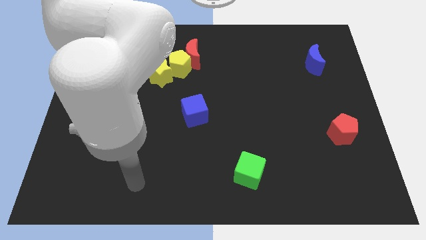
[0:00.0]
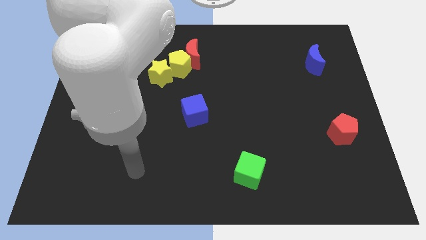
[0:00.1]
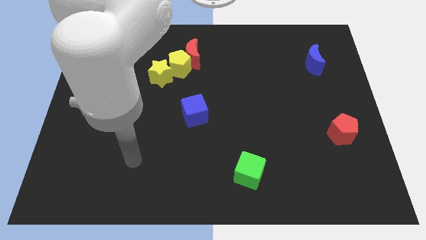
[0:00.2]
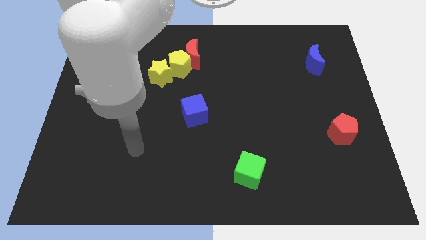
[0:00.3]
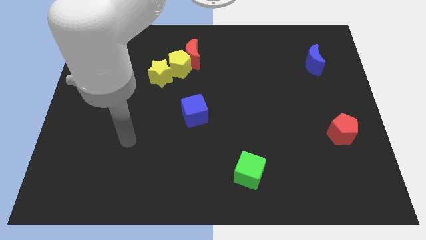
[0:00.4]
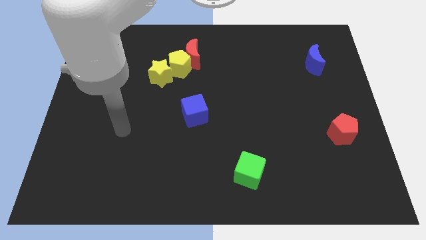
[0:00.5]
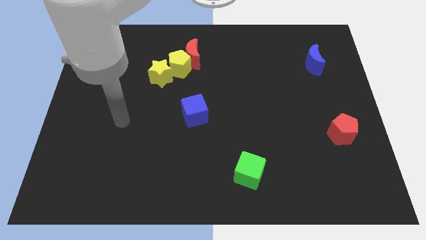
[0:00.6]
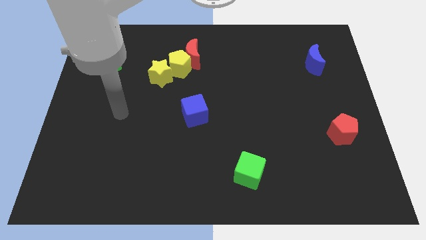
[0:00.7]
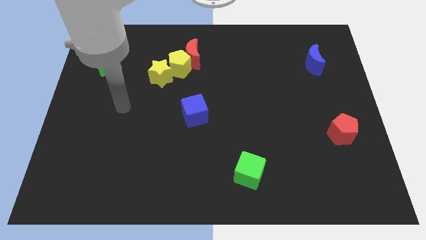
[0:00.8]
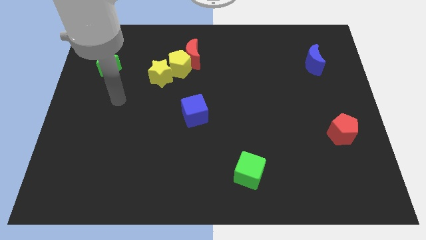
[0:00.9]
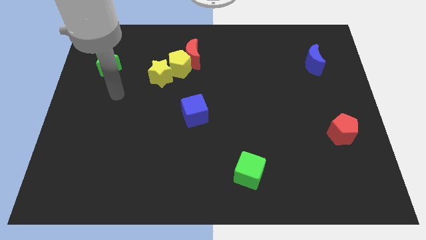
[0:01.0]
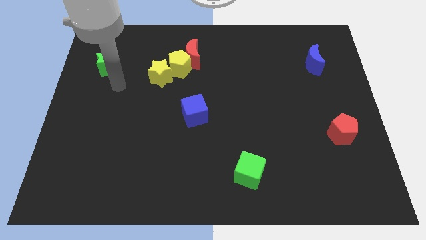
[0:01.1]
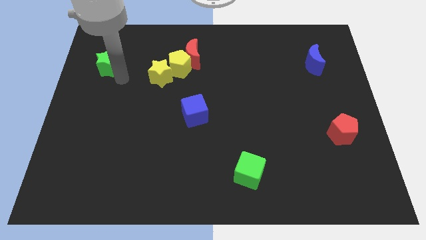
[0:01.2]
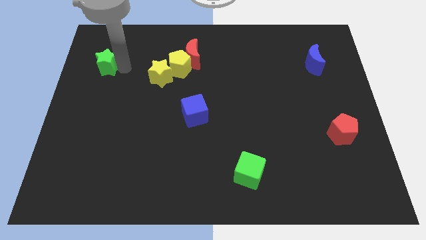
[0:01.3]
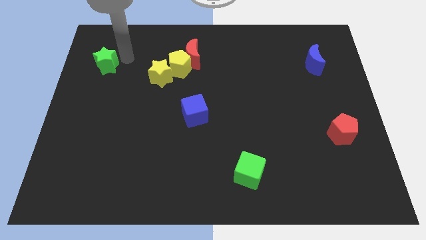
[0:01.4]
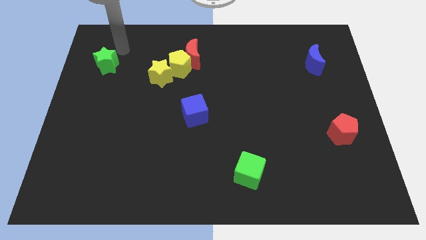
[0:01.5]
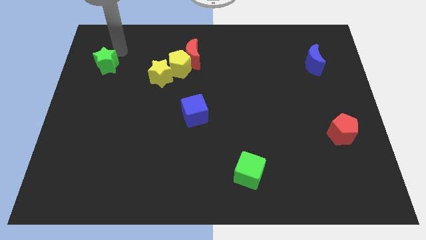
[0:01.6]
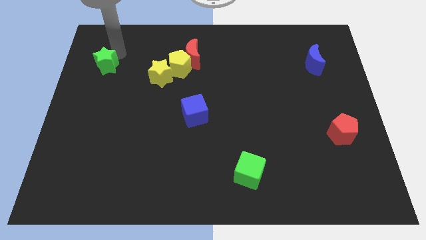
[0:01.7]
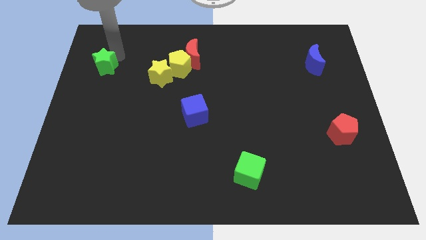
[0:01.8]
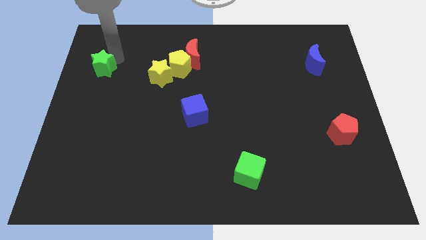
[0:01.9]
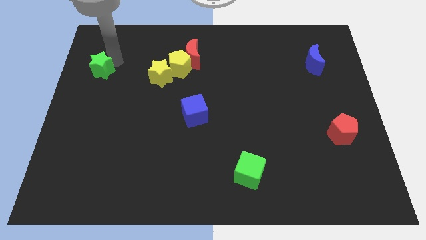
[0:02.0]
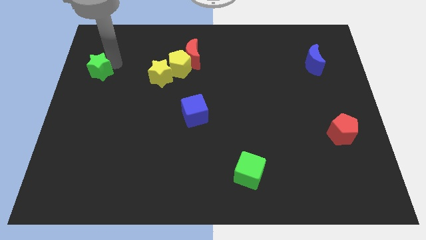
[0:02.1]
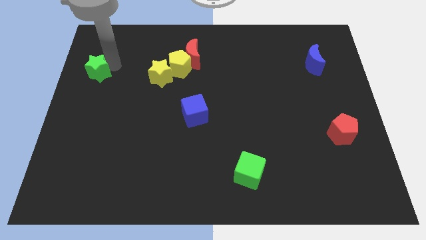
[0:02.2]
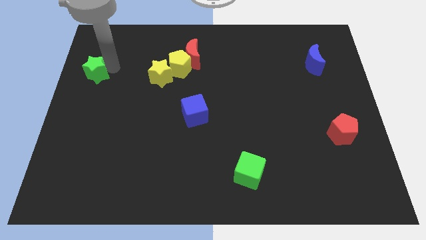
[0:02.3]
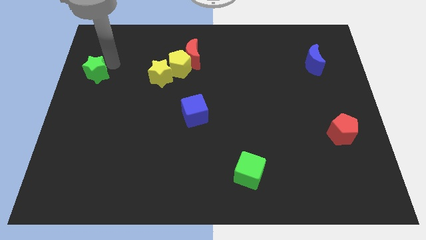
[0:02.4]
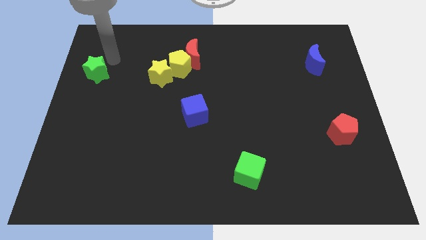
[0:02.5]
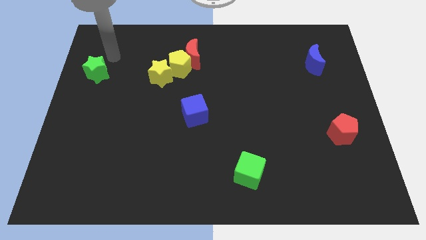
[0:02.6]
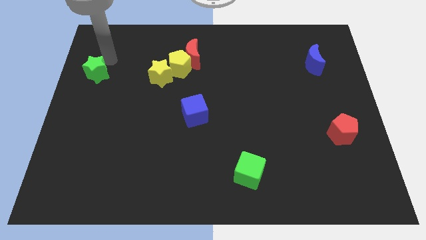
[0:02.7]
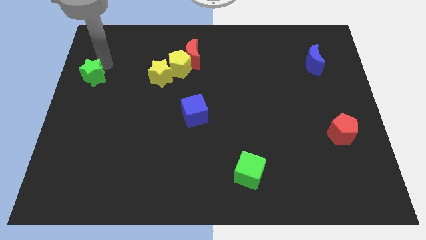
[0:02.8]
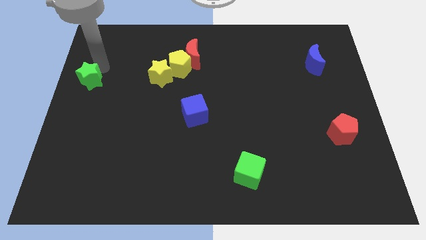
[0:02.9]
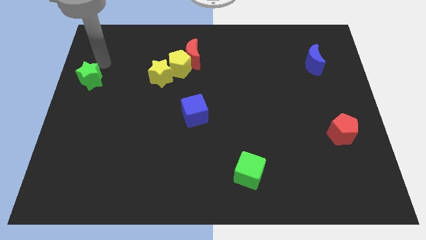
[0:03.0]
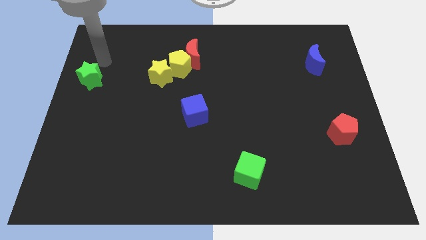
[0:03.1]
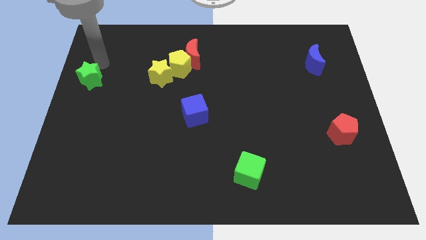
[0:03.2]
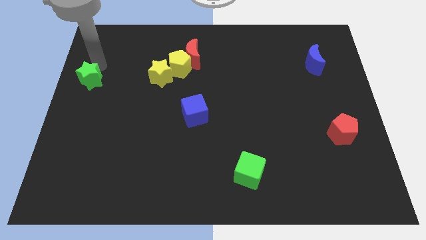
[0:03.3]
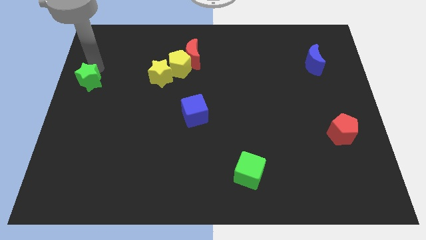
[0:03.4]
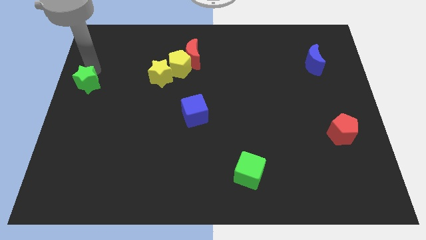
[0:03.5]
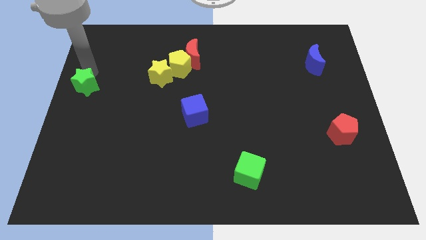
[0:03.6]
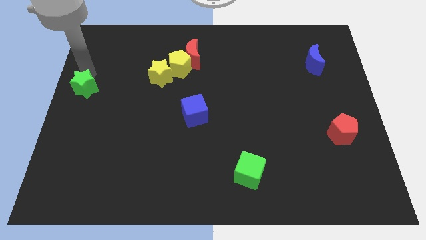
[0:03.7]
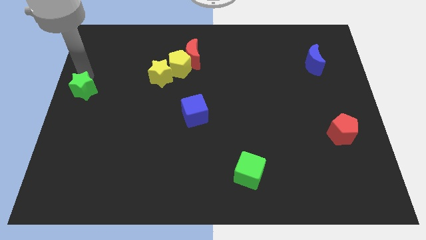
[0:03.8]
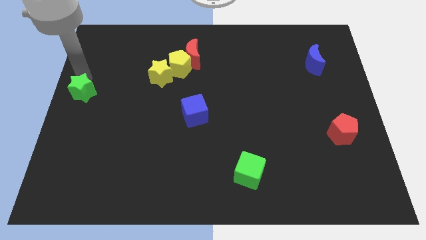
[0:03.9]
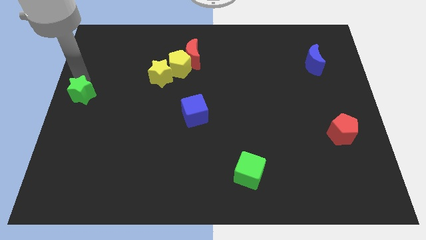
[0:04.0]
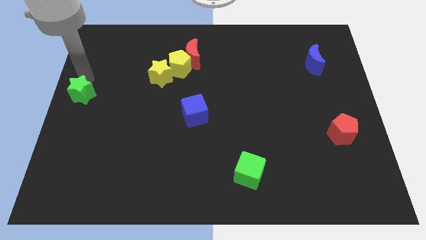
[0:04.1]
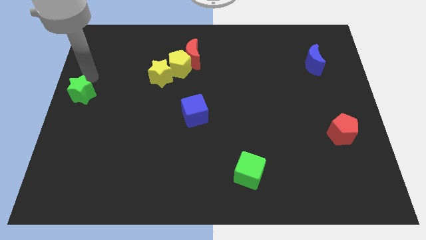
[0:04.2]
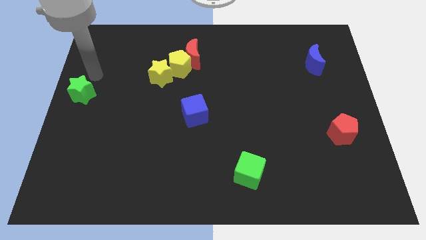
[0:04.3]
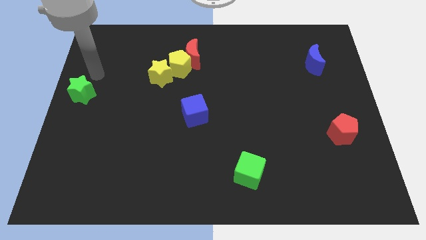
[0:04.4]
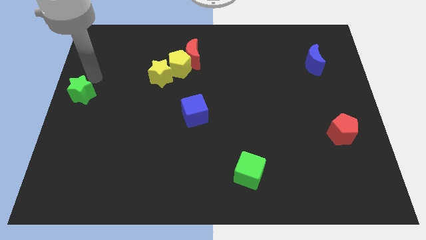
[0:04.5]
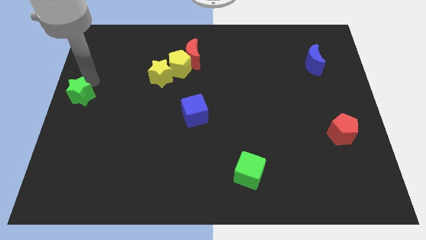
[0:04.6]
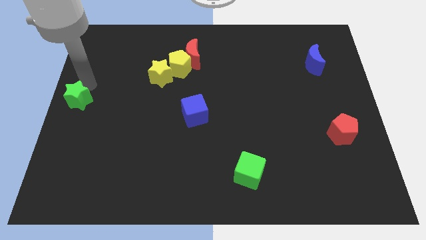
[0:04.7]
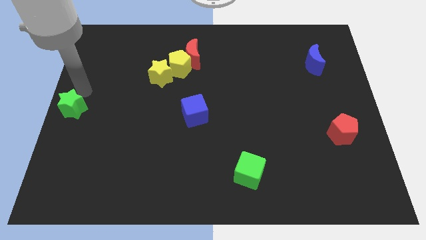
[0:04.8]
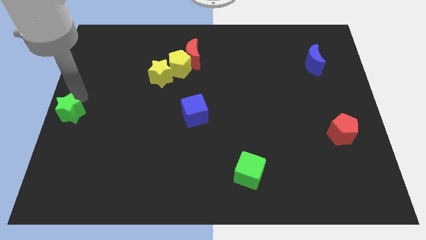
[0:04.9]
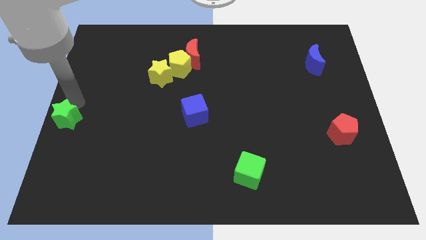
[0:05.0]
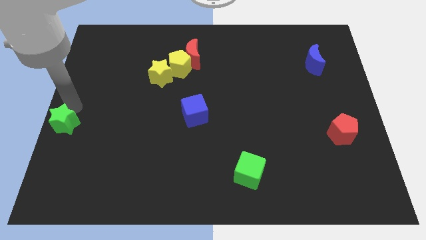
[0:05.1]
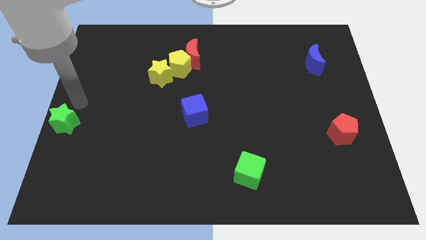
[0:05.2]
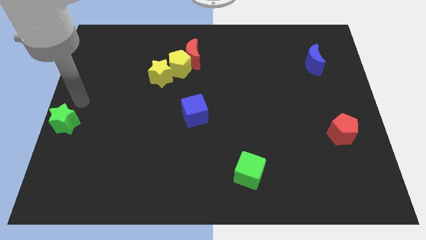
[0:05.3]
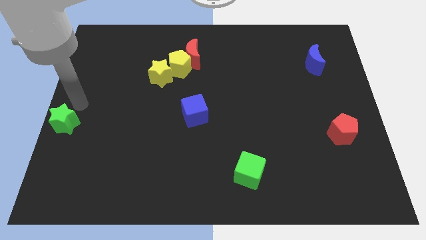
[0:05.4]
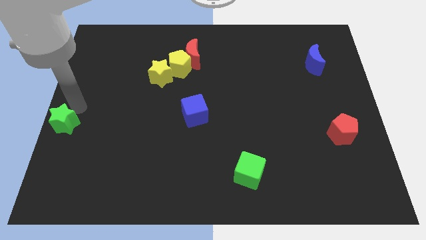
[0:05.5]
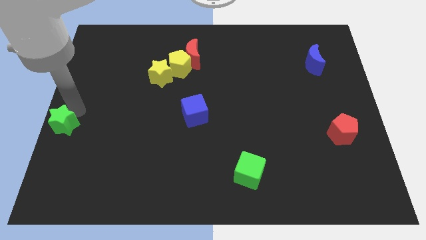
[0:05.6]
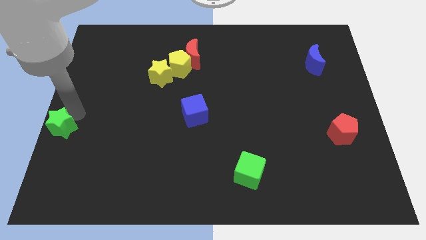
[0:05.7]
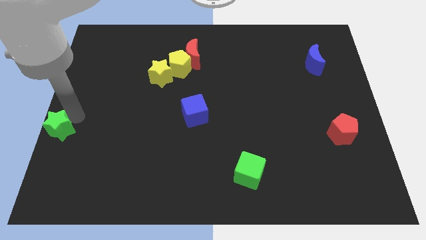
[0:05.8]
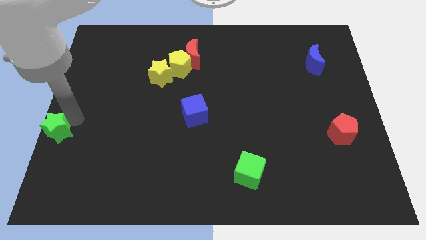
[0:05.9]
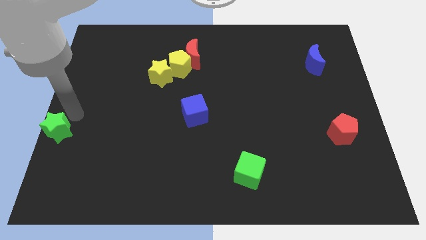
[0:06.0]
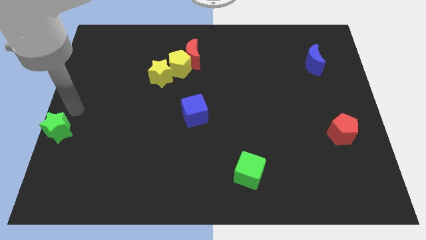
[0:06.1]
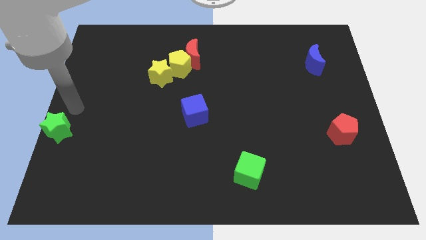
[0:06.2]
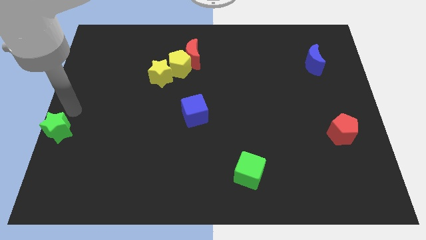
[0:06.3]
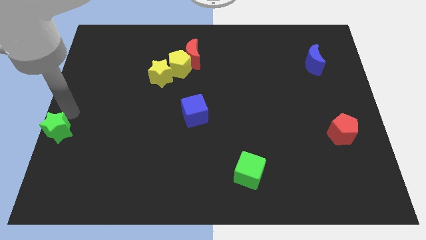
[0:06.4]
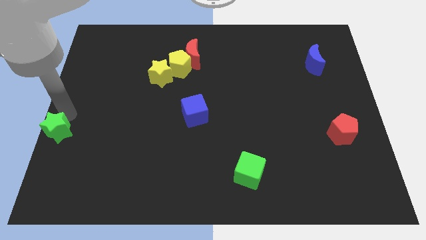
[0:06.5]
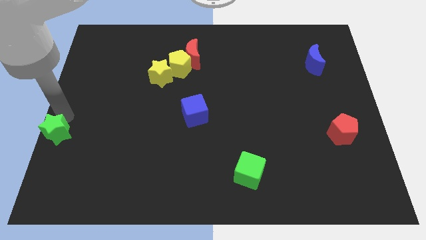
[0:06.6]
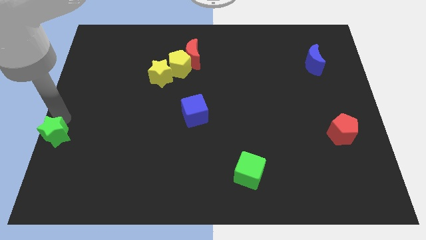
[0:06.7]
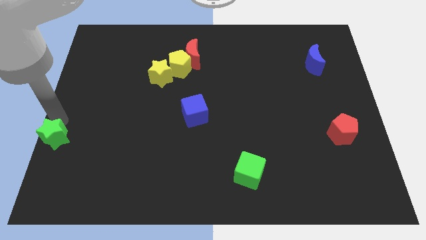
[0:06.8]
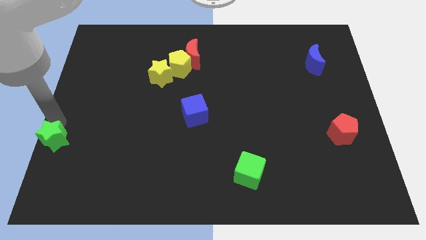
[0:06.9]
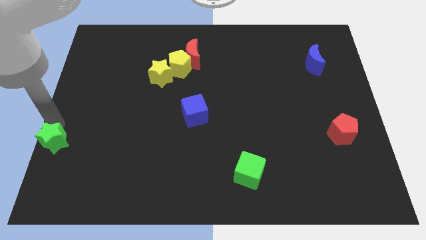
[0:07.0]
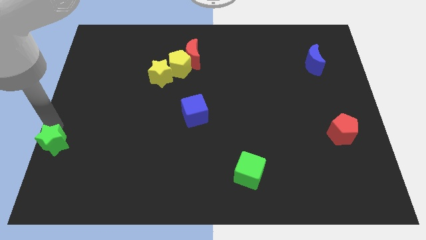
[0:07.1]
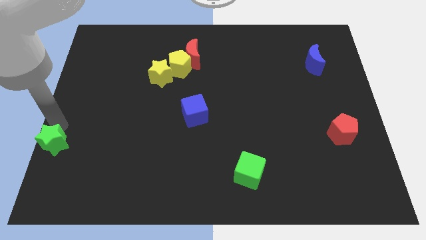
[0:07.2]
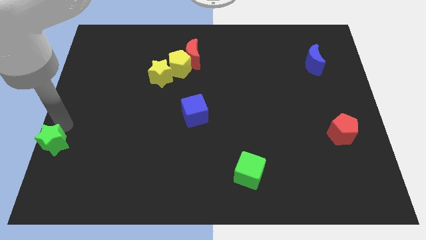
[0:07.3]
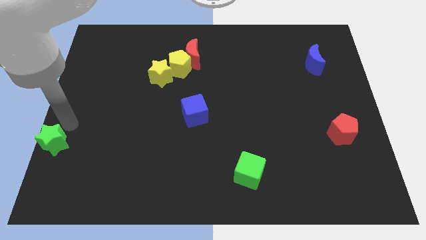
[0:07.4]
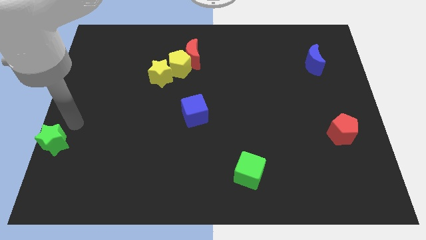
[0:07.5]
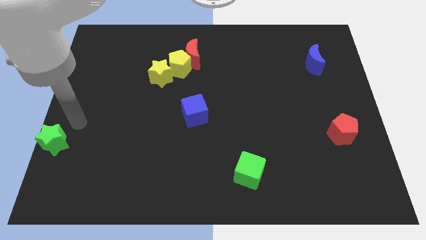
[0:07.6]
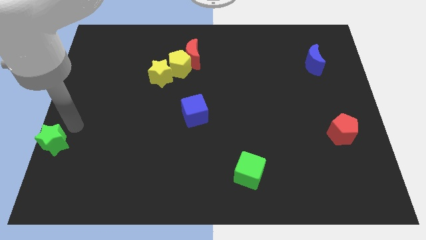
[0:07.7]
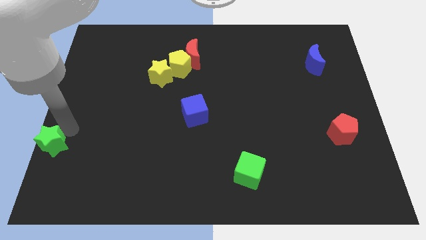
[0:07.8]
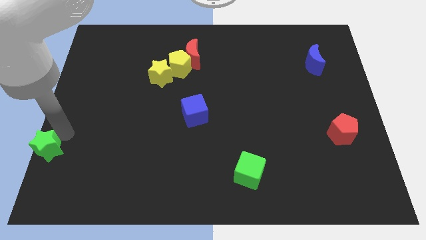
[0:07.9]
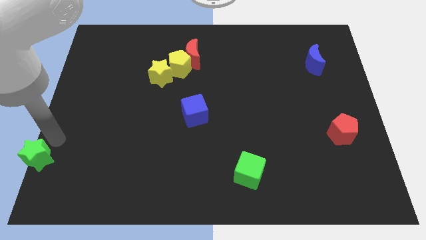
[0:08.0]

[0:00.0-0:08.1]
push the green star to the bottom left
